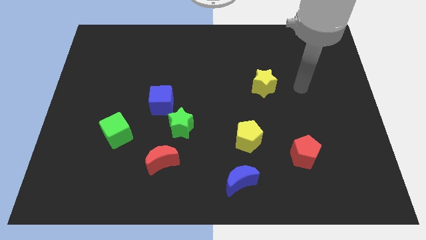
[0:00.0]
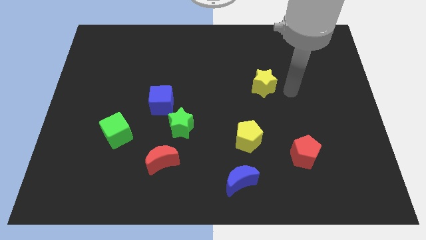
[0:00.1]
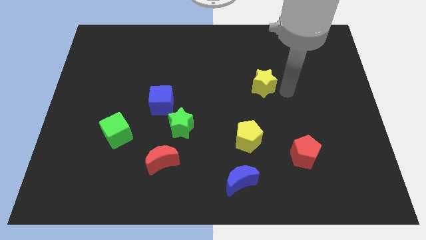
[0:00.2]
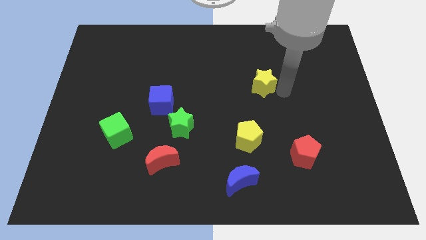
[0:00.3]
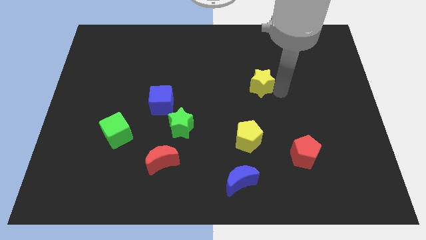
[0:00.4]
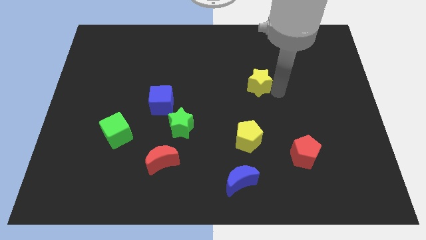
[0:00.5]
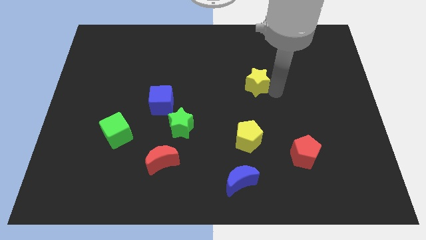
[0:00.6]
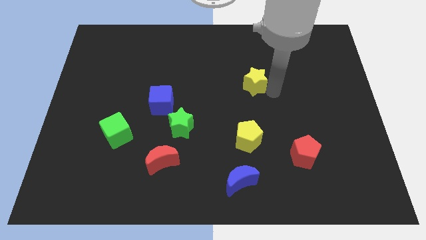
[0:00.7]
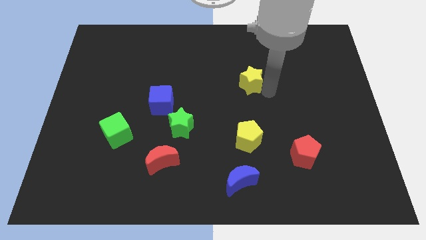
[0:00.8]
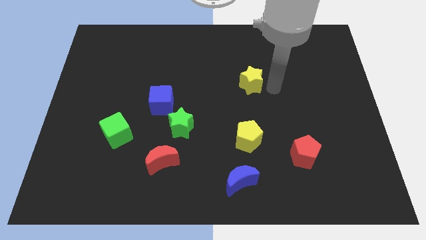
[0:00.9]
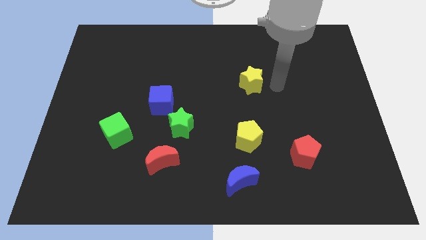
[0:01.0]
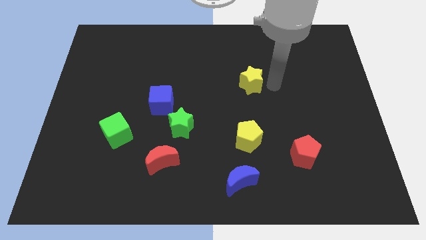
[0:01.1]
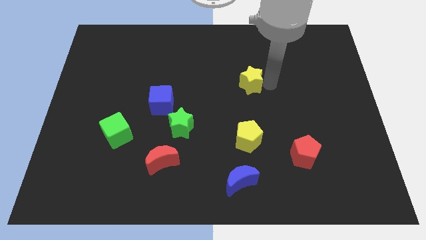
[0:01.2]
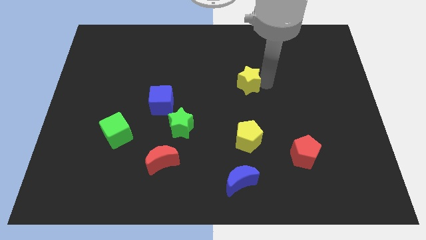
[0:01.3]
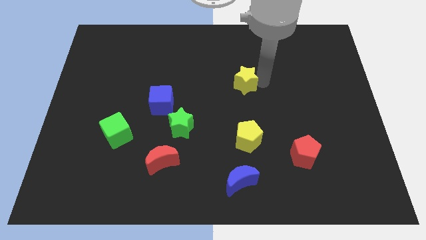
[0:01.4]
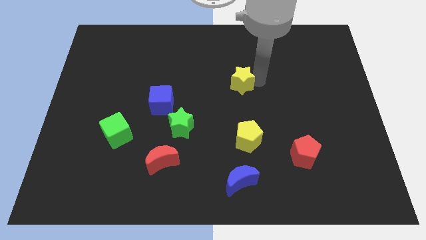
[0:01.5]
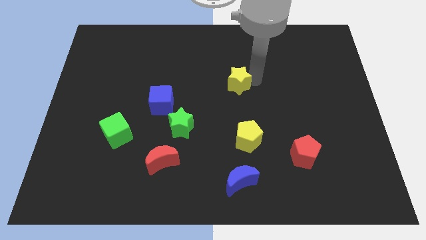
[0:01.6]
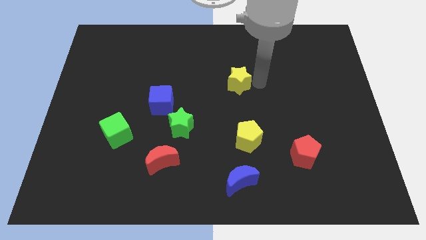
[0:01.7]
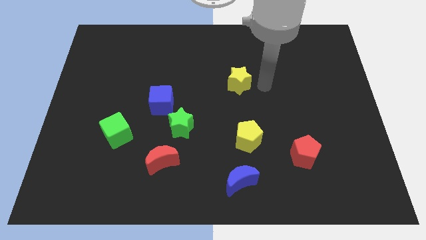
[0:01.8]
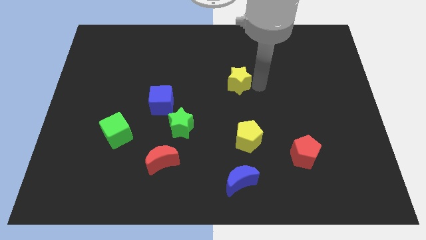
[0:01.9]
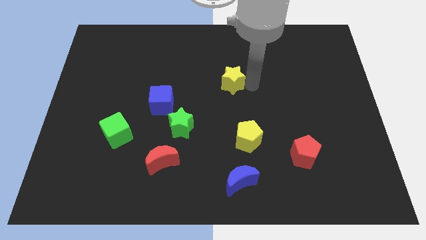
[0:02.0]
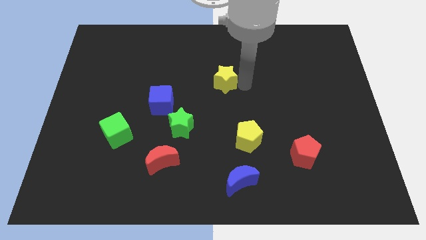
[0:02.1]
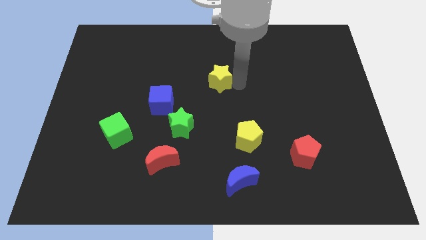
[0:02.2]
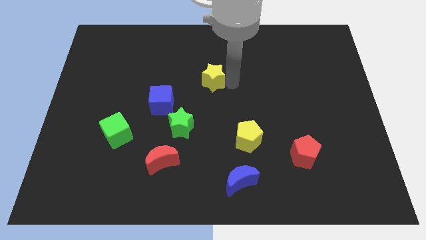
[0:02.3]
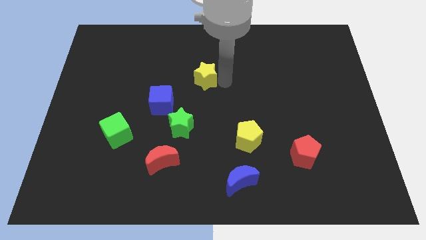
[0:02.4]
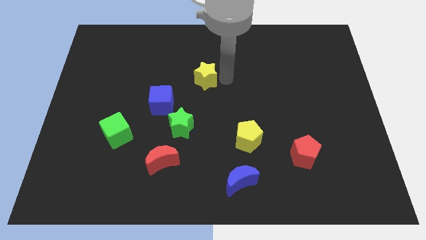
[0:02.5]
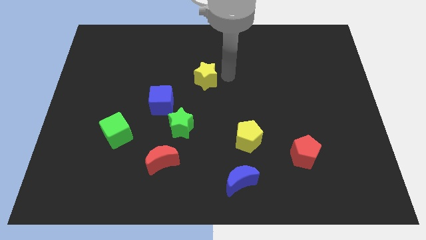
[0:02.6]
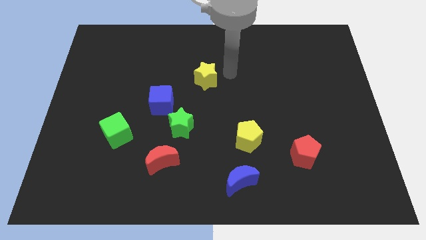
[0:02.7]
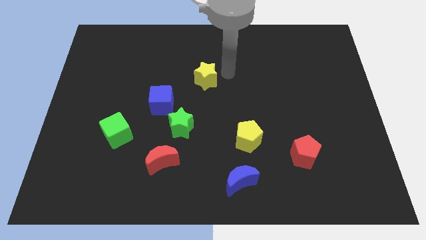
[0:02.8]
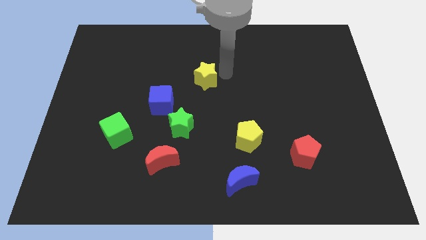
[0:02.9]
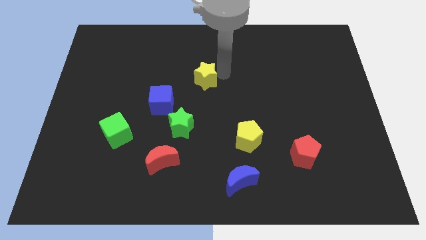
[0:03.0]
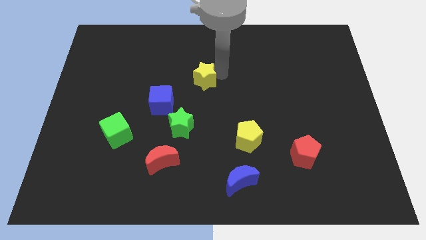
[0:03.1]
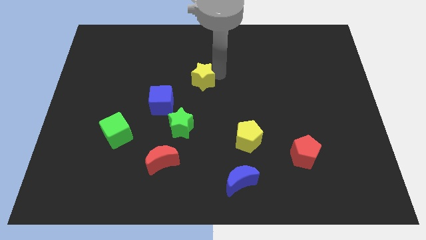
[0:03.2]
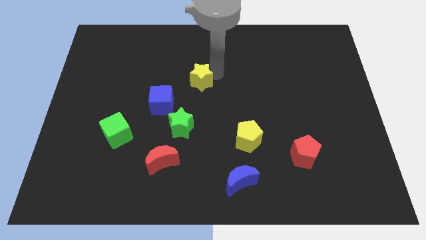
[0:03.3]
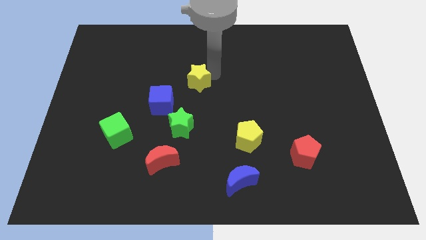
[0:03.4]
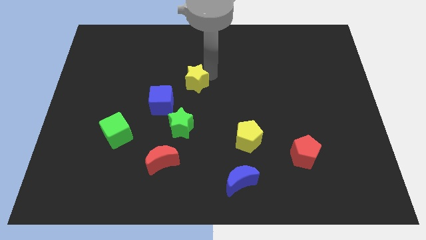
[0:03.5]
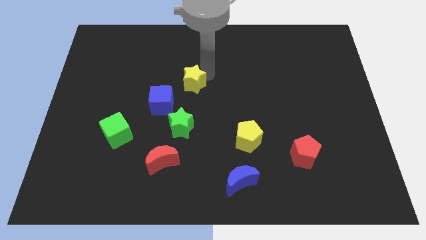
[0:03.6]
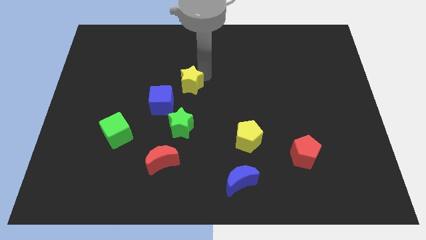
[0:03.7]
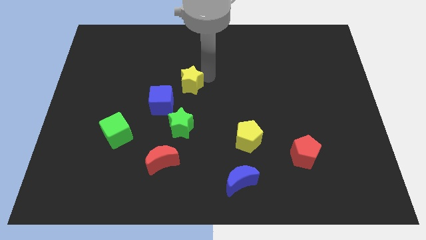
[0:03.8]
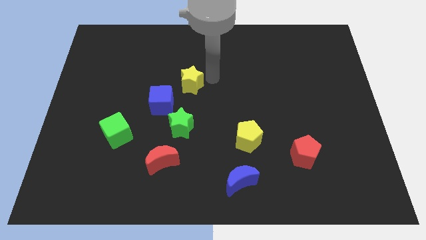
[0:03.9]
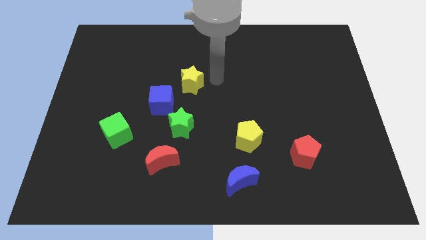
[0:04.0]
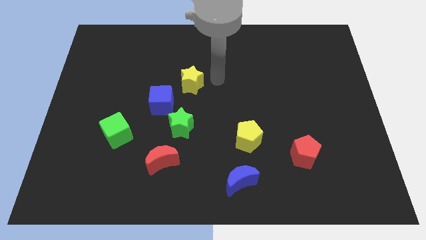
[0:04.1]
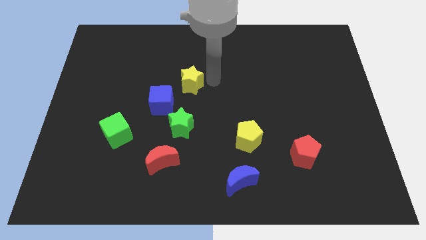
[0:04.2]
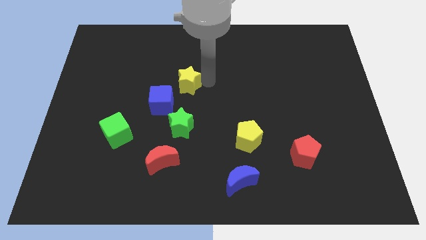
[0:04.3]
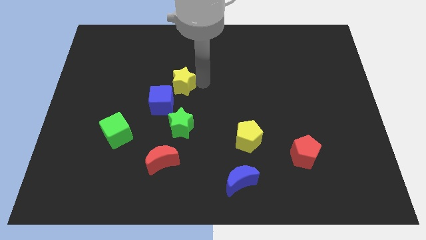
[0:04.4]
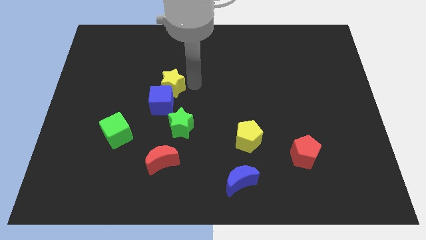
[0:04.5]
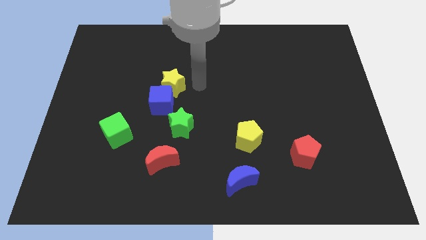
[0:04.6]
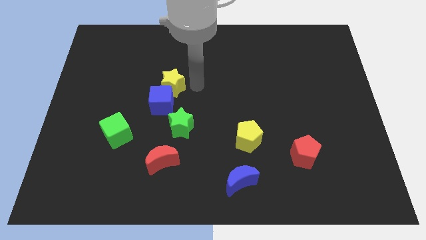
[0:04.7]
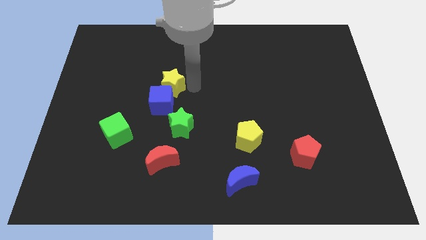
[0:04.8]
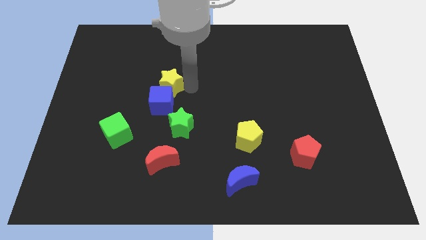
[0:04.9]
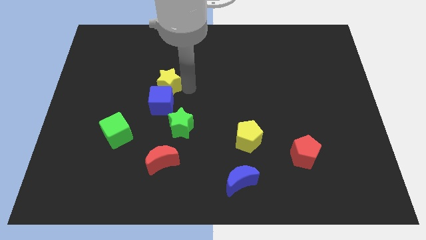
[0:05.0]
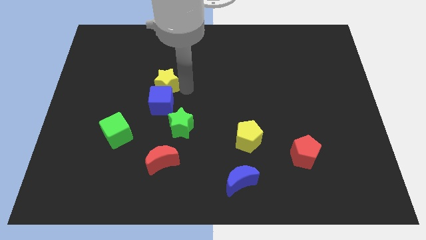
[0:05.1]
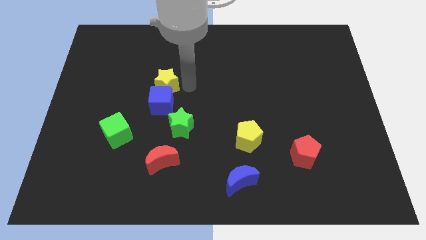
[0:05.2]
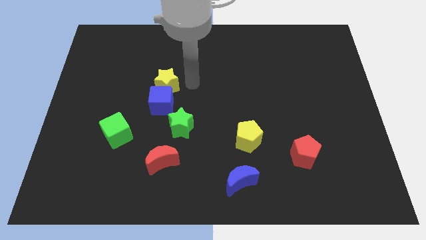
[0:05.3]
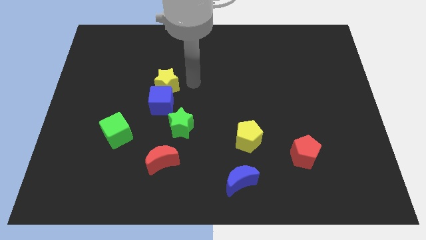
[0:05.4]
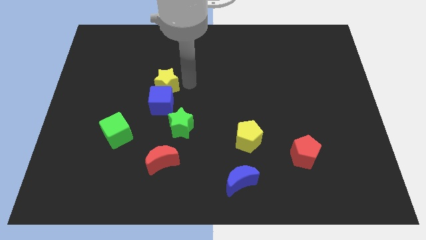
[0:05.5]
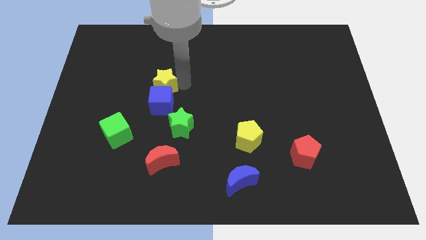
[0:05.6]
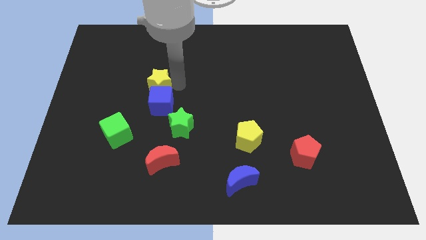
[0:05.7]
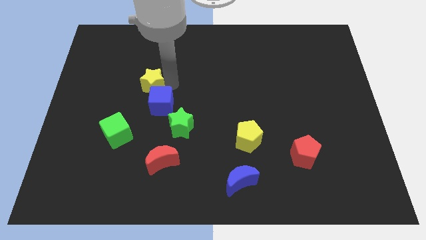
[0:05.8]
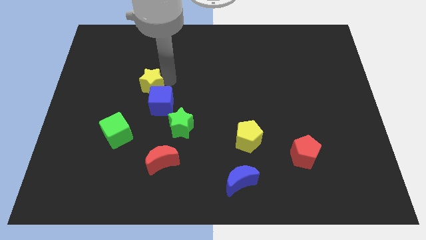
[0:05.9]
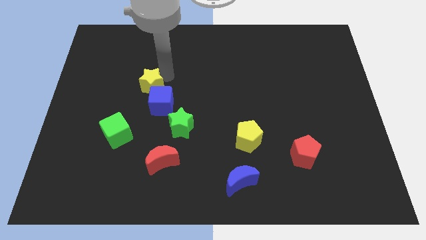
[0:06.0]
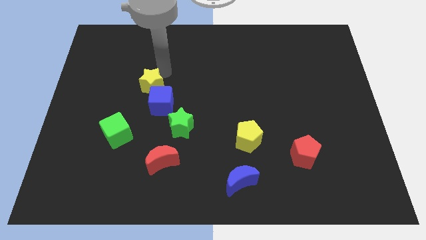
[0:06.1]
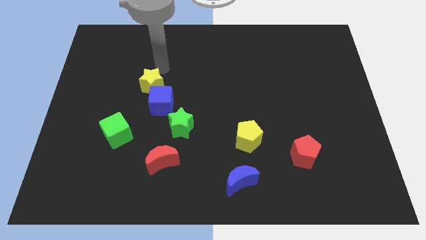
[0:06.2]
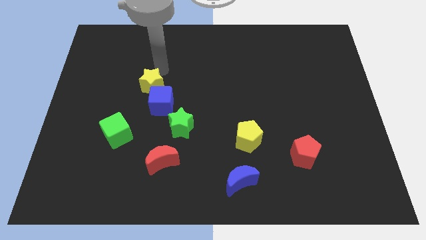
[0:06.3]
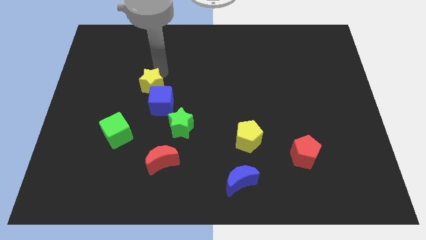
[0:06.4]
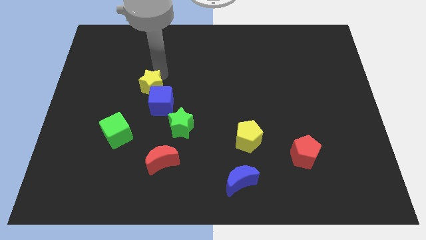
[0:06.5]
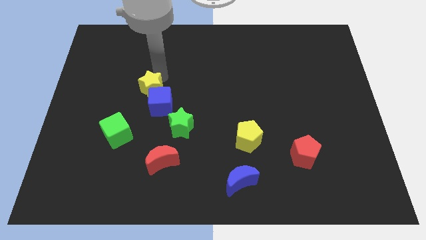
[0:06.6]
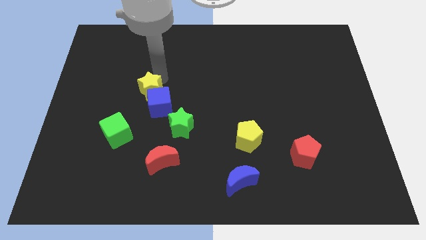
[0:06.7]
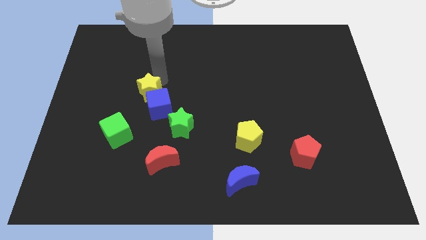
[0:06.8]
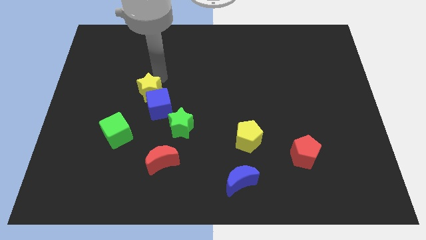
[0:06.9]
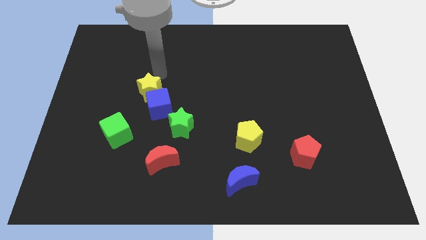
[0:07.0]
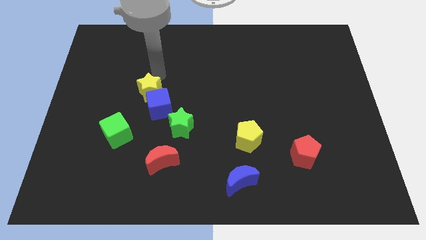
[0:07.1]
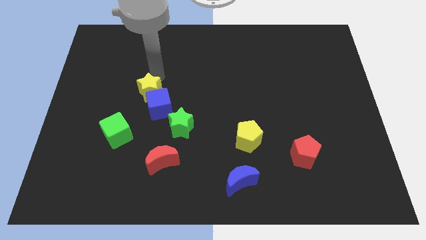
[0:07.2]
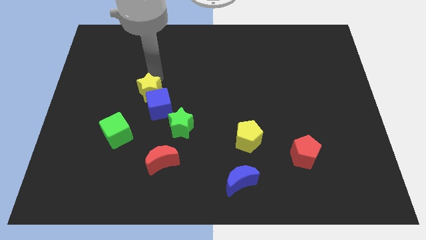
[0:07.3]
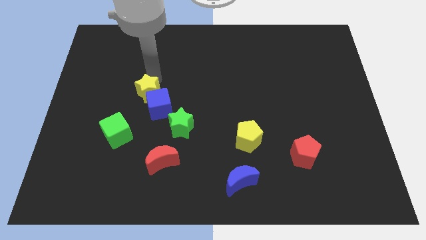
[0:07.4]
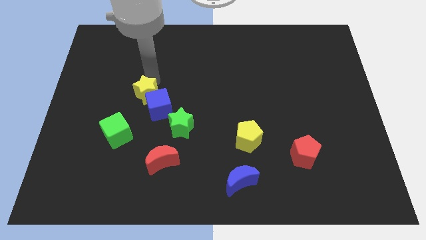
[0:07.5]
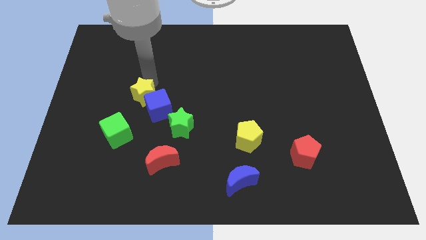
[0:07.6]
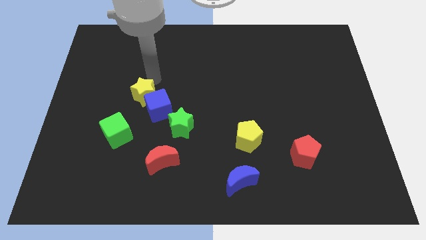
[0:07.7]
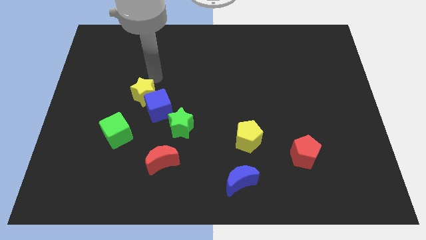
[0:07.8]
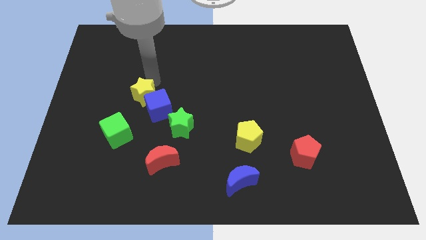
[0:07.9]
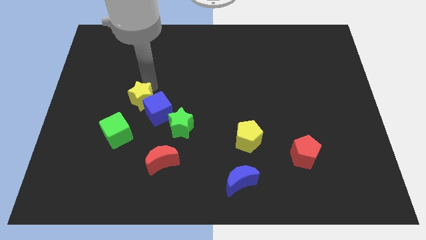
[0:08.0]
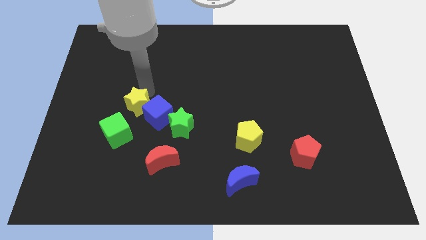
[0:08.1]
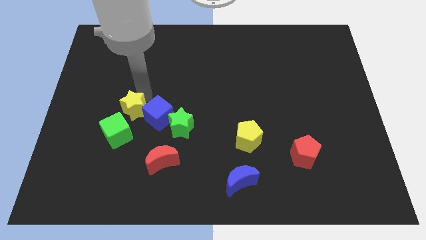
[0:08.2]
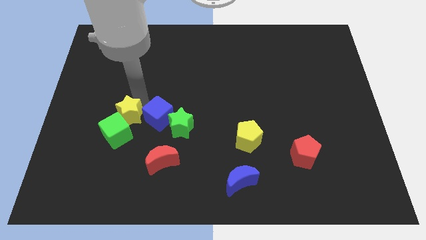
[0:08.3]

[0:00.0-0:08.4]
slide the yellow star close to the green cube
